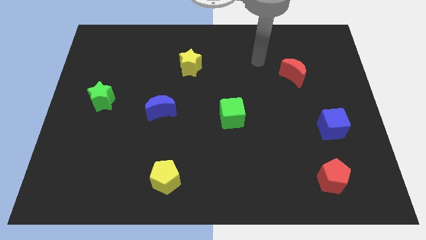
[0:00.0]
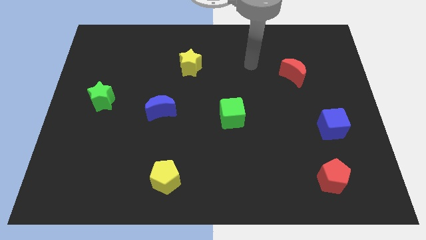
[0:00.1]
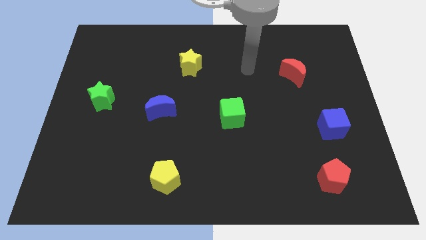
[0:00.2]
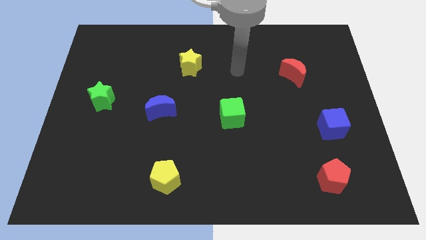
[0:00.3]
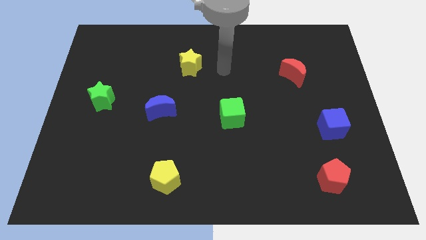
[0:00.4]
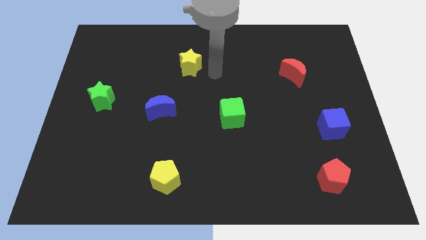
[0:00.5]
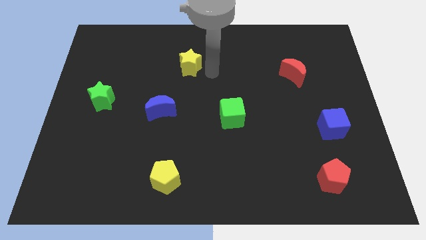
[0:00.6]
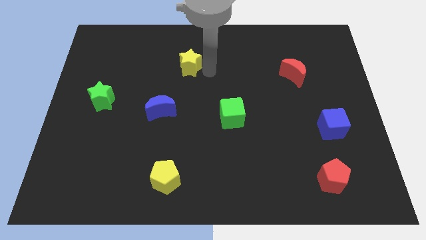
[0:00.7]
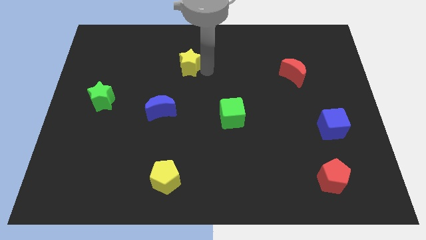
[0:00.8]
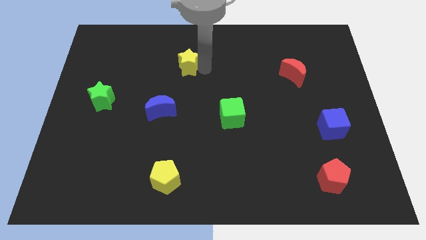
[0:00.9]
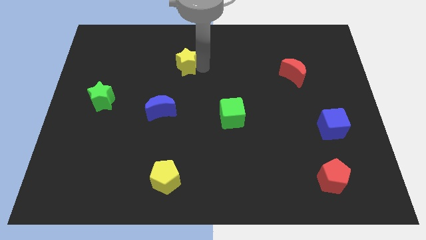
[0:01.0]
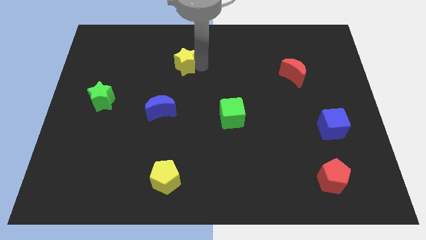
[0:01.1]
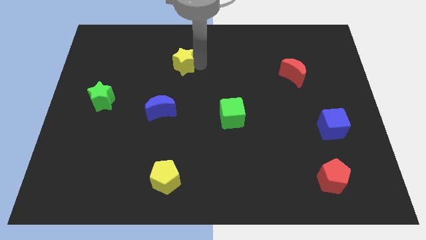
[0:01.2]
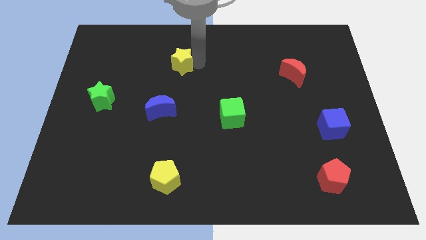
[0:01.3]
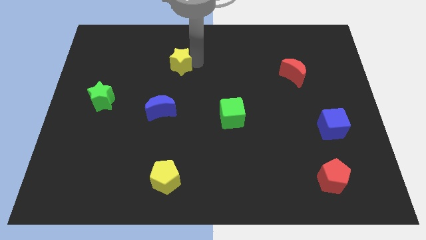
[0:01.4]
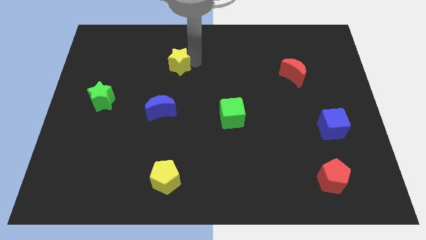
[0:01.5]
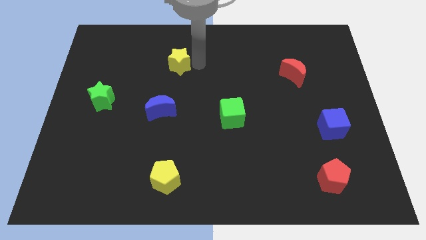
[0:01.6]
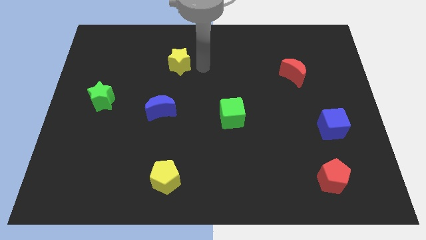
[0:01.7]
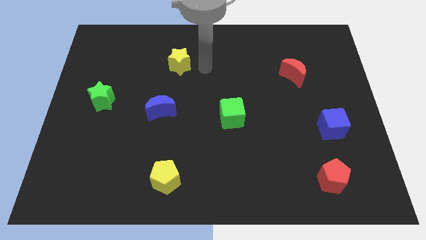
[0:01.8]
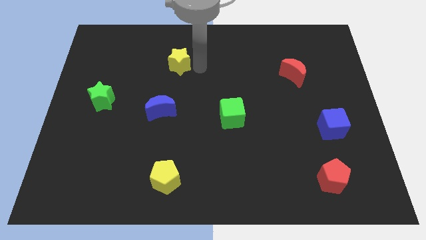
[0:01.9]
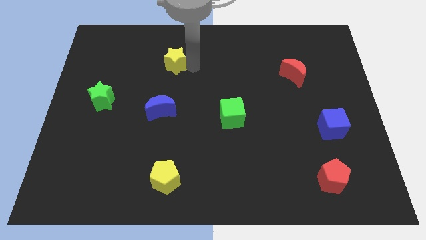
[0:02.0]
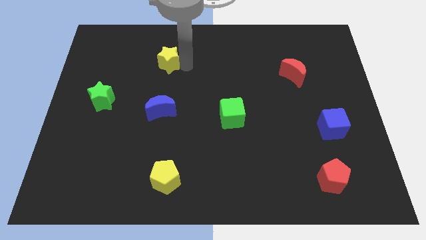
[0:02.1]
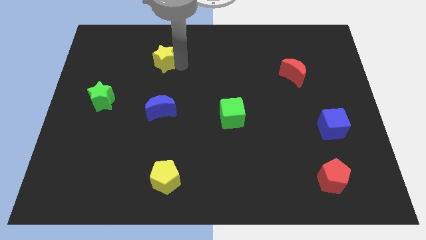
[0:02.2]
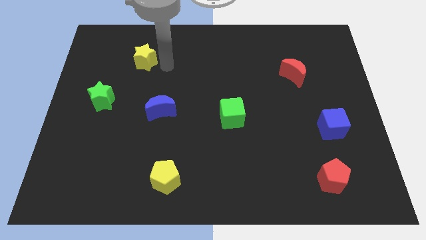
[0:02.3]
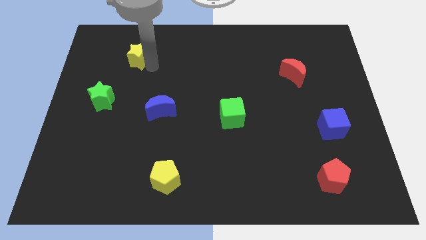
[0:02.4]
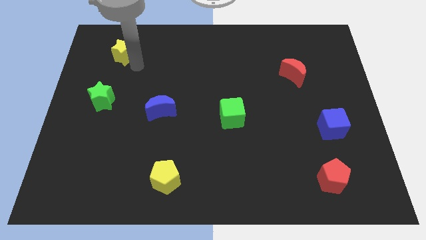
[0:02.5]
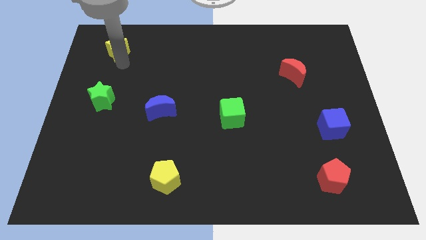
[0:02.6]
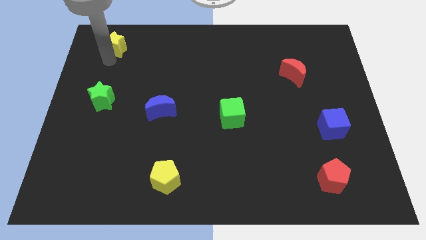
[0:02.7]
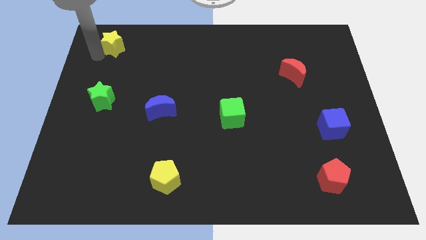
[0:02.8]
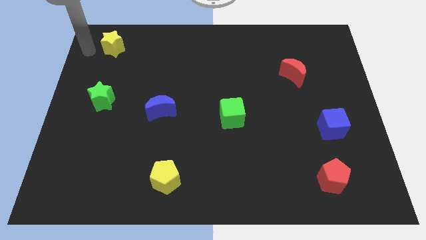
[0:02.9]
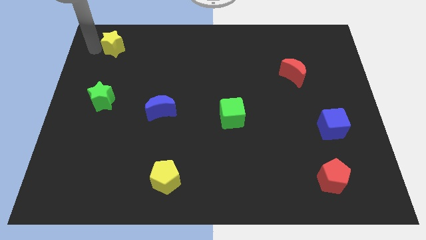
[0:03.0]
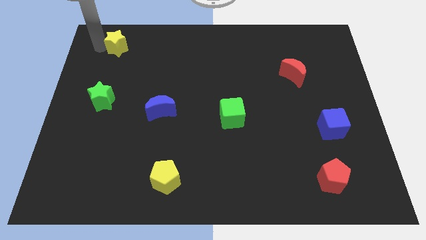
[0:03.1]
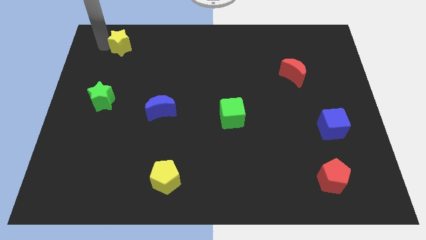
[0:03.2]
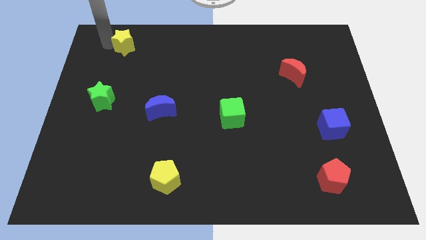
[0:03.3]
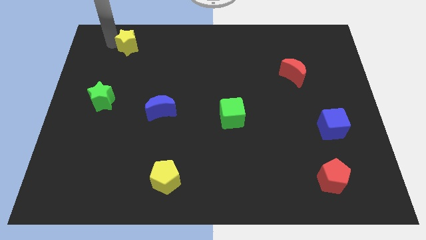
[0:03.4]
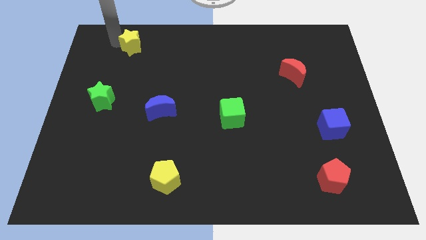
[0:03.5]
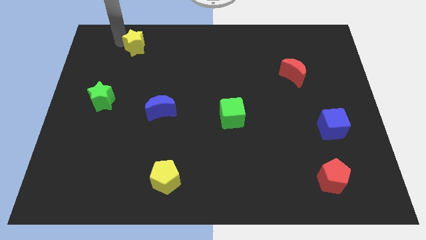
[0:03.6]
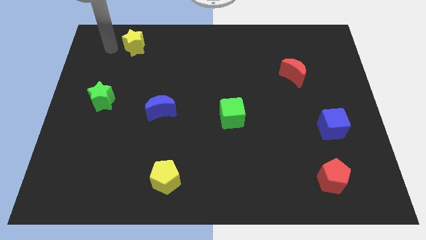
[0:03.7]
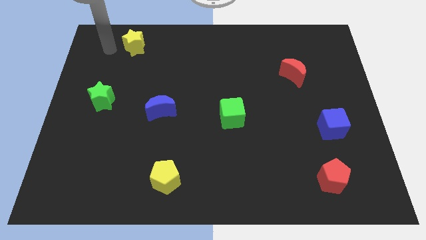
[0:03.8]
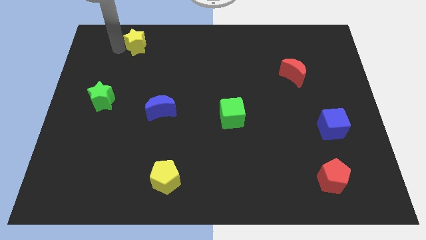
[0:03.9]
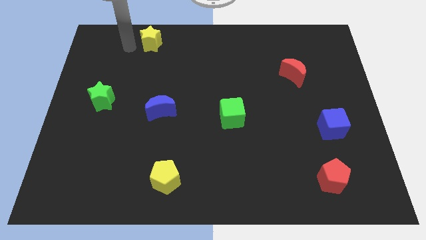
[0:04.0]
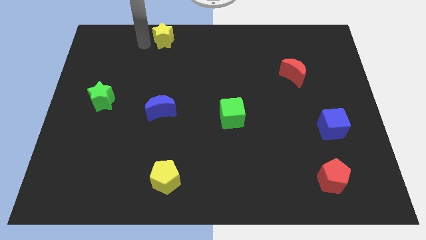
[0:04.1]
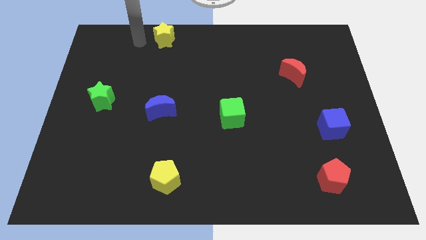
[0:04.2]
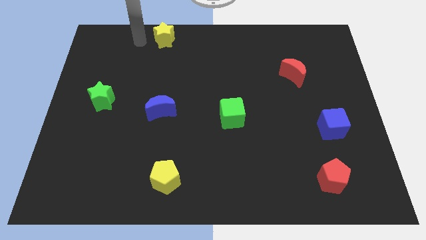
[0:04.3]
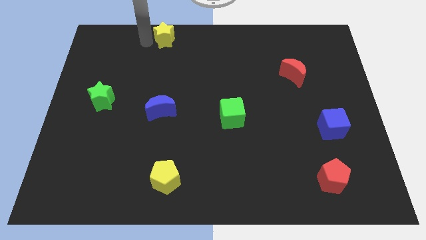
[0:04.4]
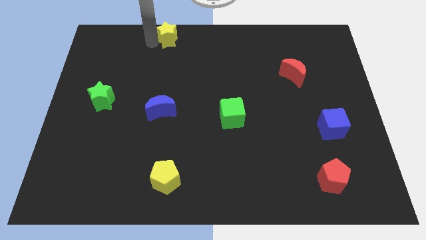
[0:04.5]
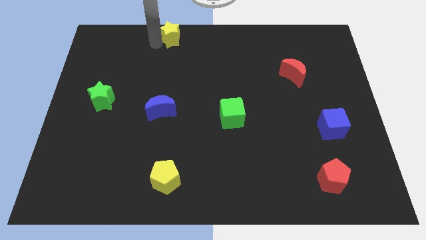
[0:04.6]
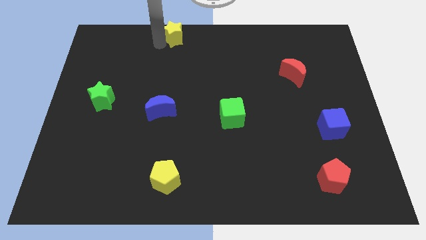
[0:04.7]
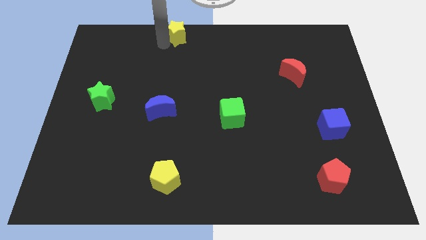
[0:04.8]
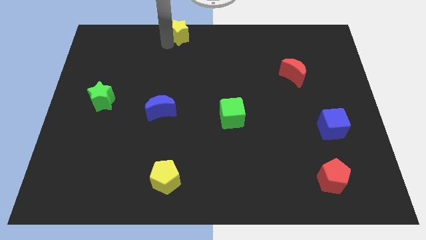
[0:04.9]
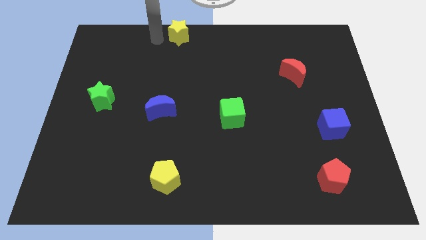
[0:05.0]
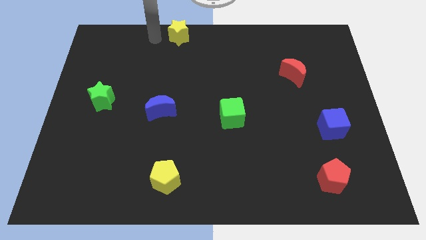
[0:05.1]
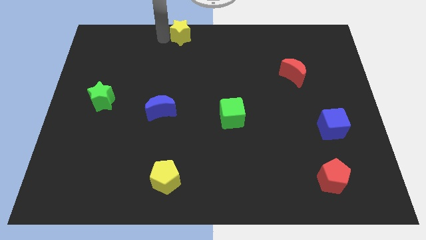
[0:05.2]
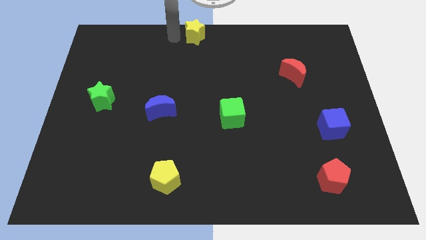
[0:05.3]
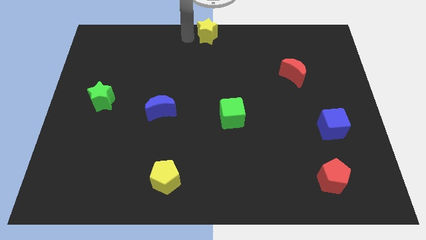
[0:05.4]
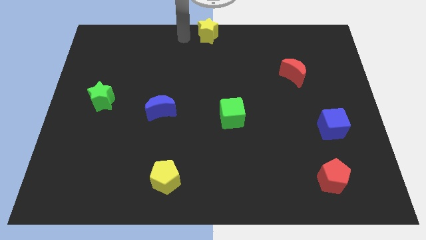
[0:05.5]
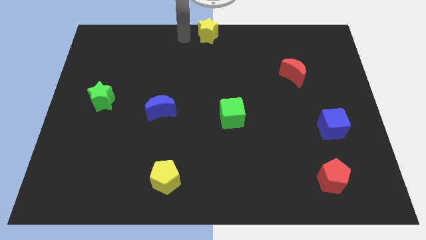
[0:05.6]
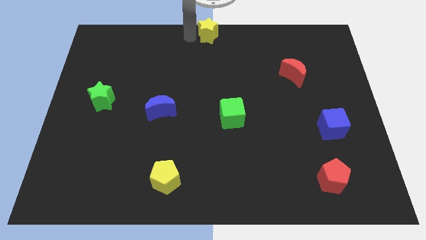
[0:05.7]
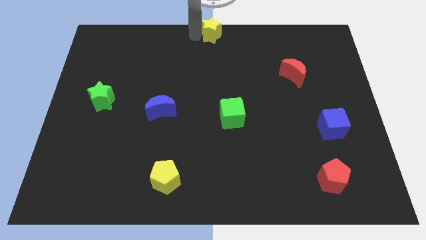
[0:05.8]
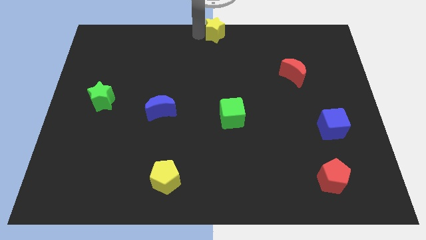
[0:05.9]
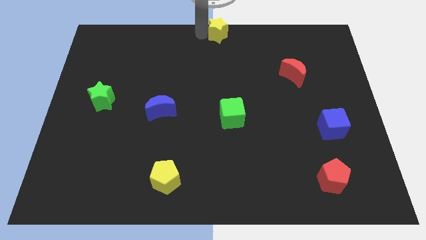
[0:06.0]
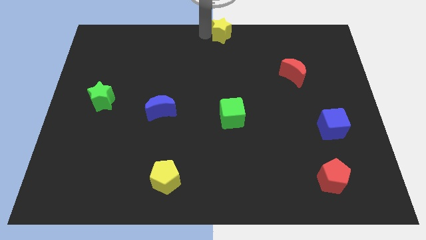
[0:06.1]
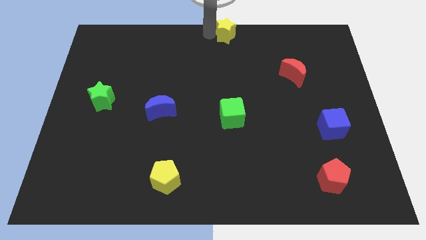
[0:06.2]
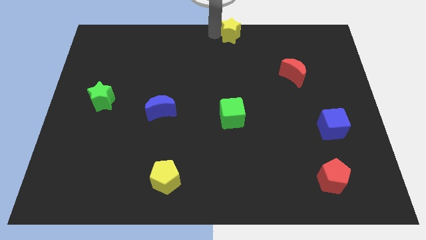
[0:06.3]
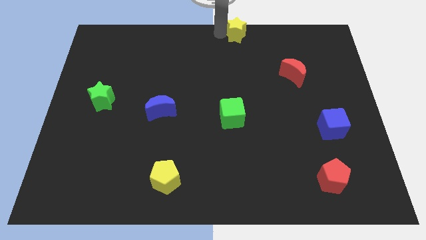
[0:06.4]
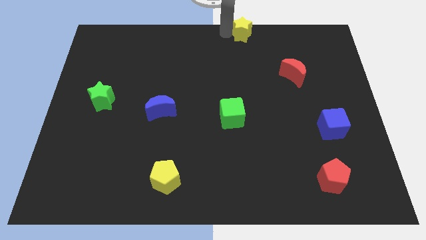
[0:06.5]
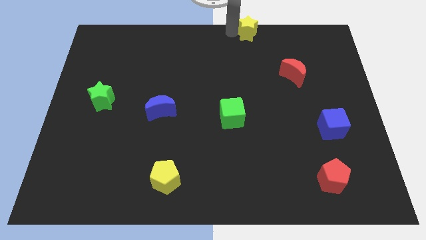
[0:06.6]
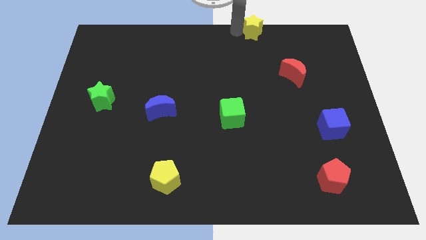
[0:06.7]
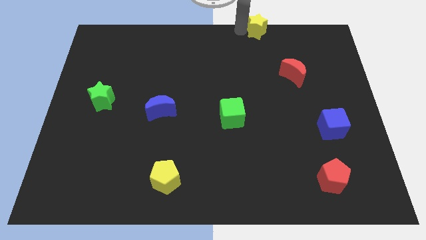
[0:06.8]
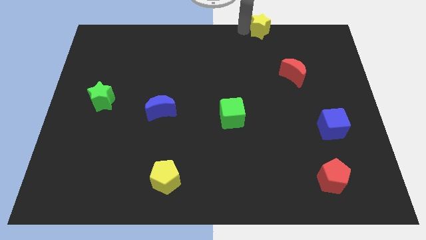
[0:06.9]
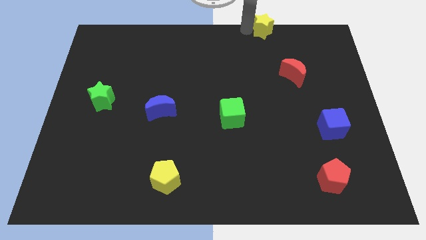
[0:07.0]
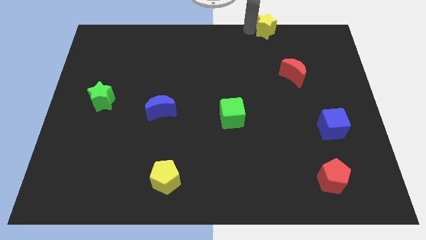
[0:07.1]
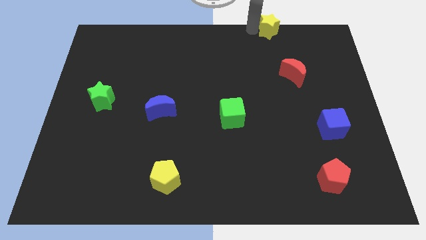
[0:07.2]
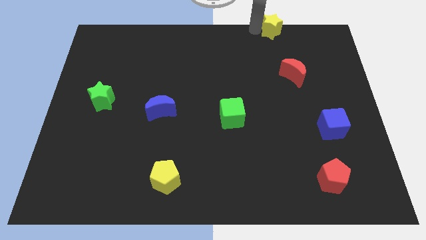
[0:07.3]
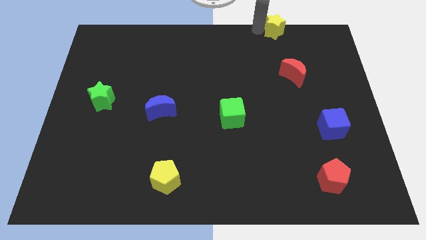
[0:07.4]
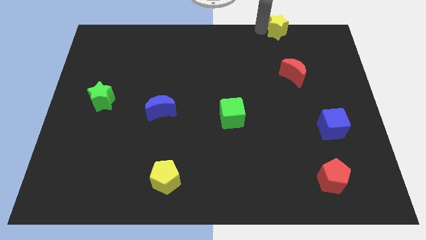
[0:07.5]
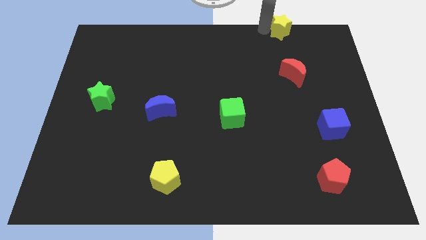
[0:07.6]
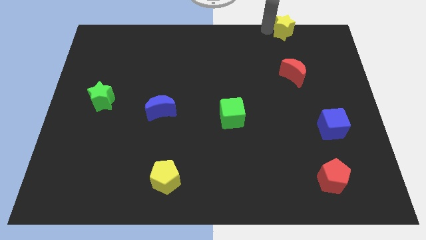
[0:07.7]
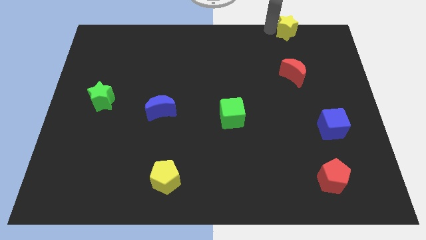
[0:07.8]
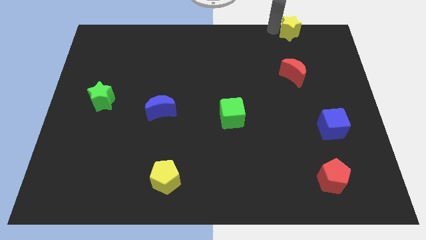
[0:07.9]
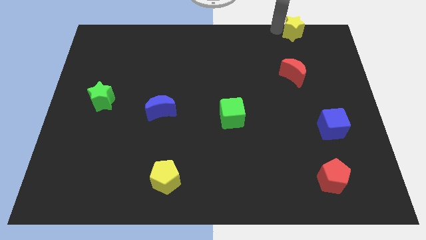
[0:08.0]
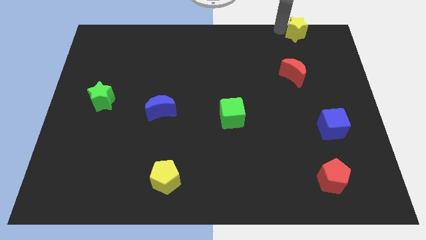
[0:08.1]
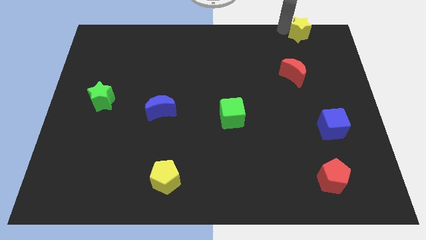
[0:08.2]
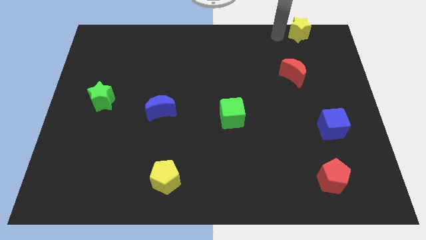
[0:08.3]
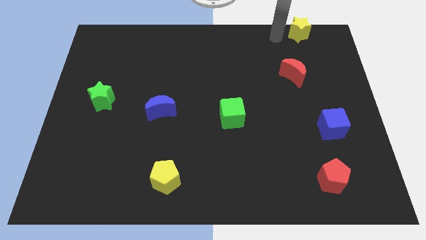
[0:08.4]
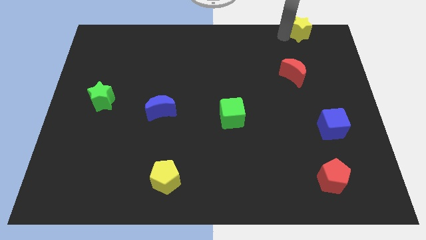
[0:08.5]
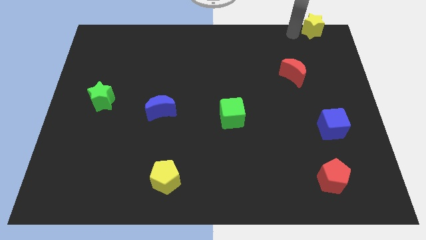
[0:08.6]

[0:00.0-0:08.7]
slide the yellow star to the upper right corner

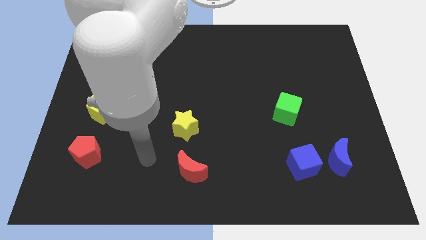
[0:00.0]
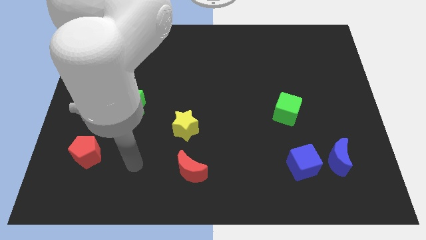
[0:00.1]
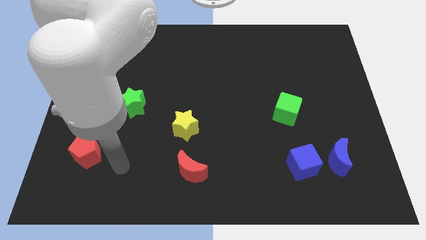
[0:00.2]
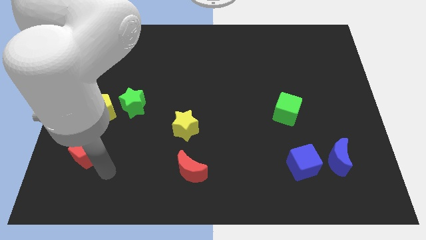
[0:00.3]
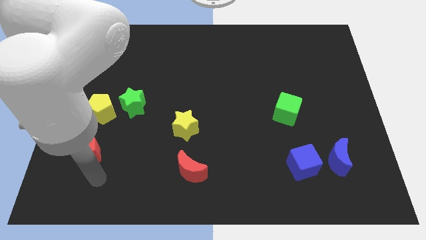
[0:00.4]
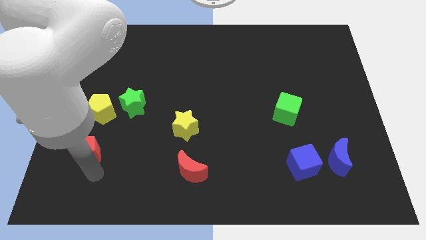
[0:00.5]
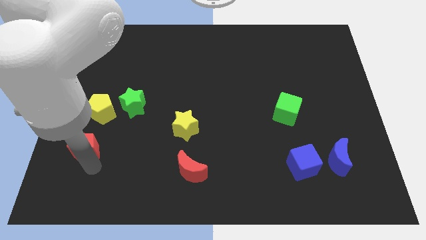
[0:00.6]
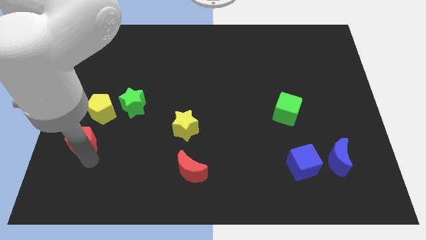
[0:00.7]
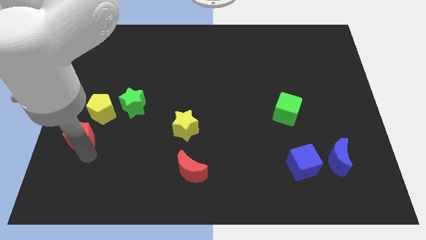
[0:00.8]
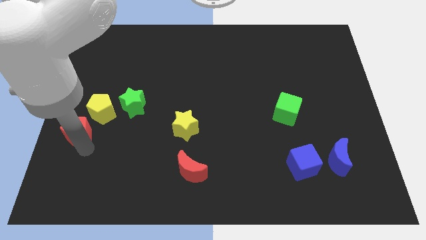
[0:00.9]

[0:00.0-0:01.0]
slide the red pentagon to the center left
